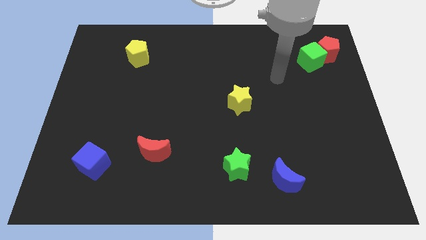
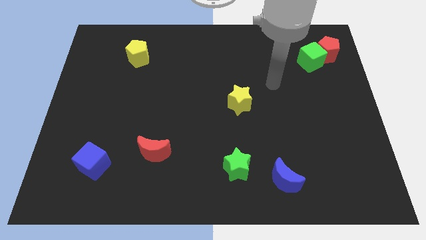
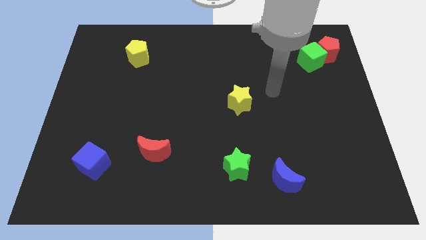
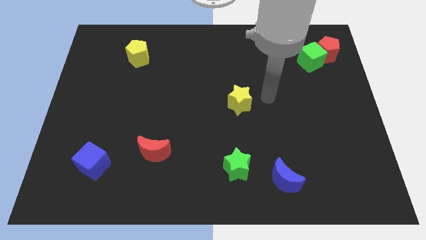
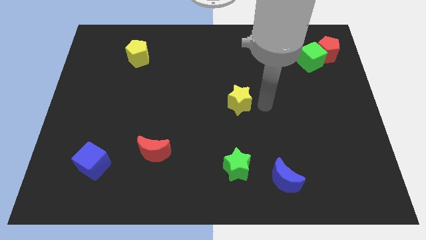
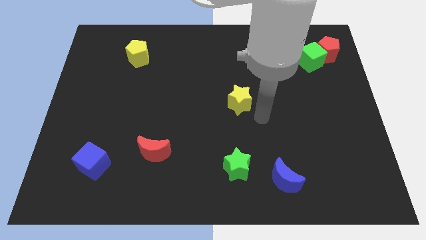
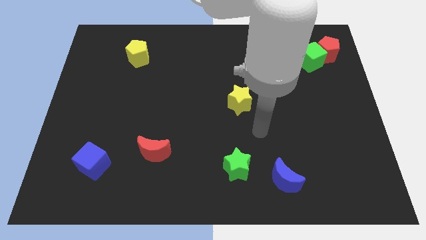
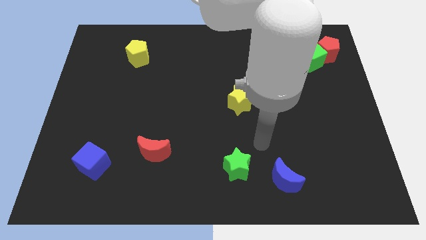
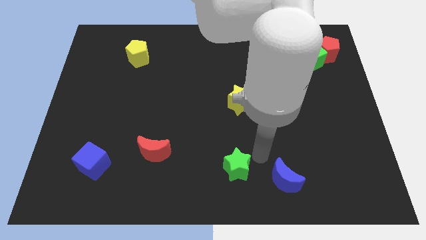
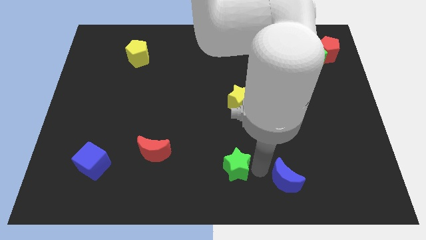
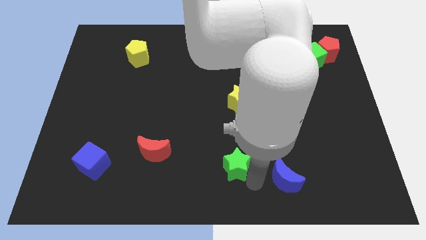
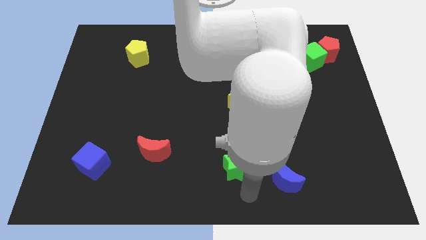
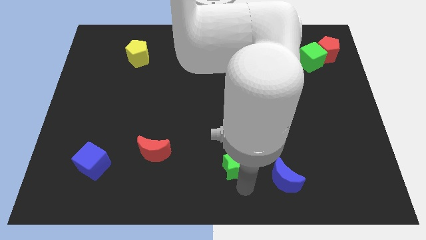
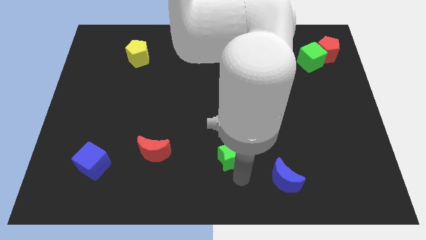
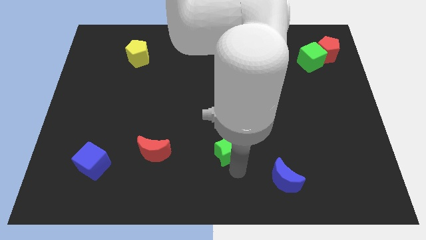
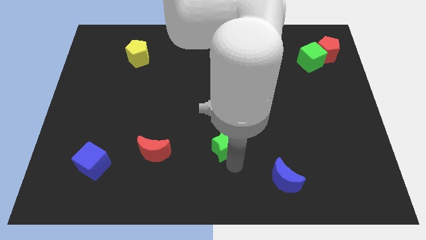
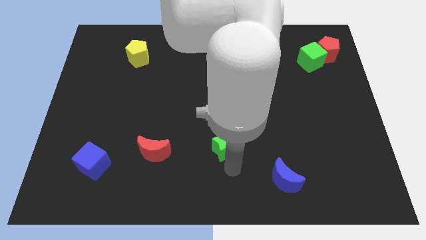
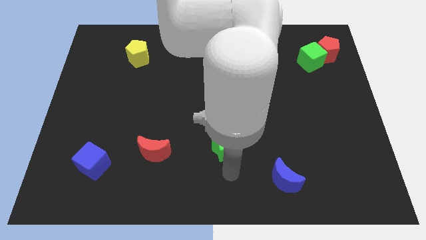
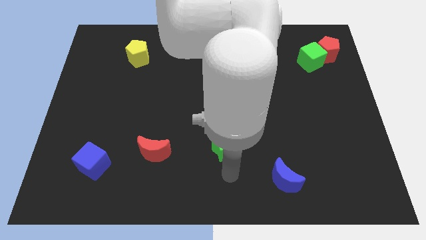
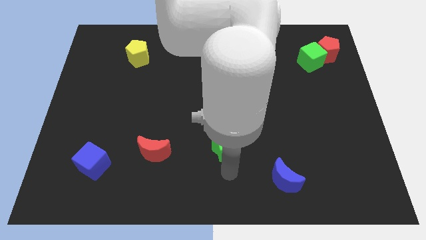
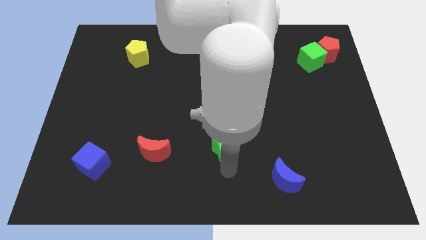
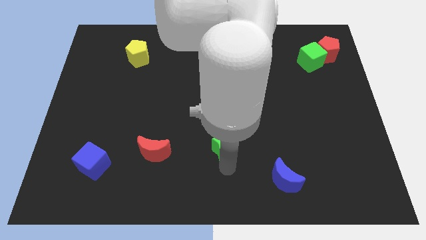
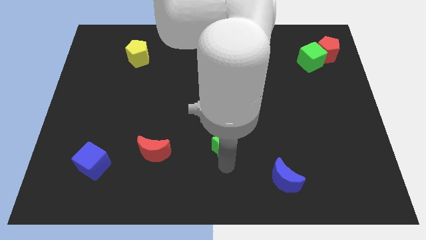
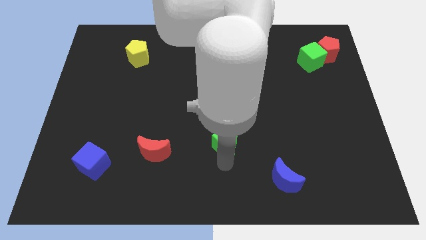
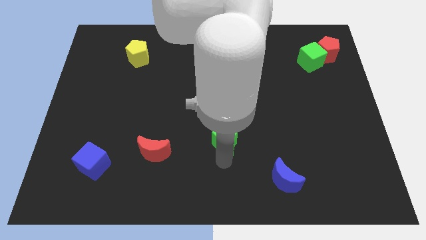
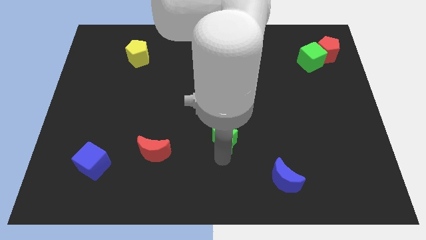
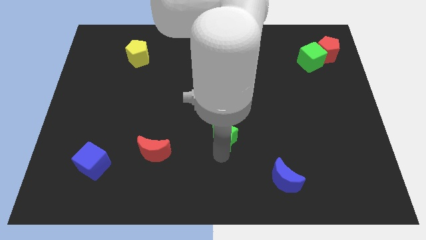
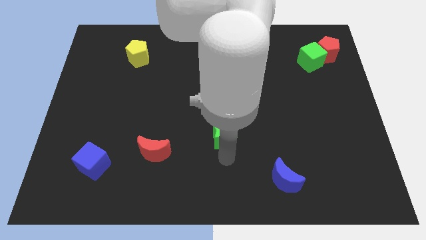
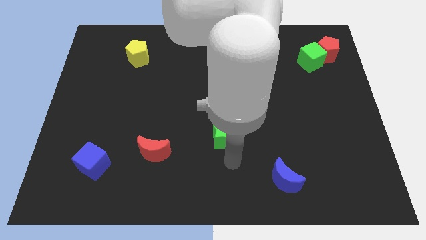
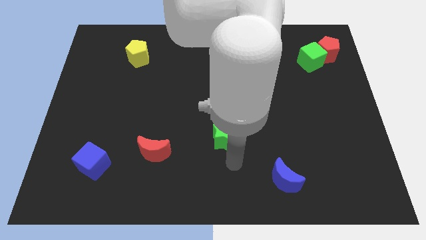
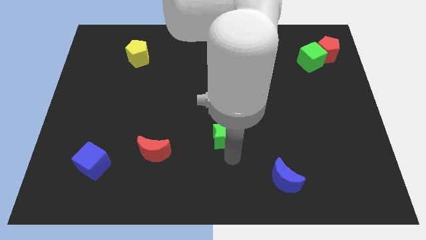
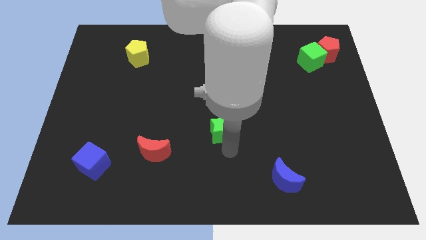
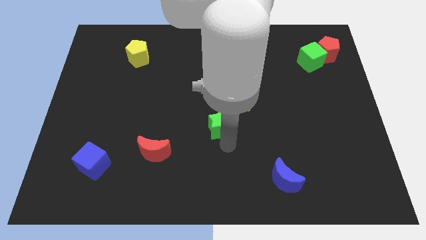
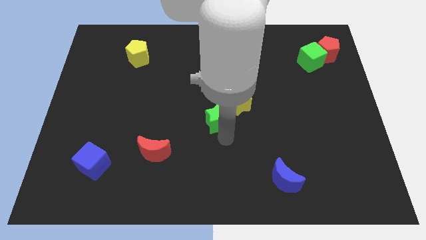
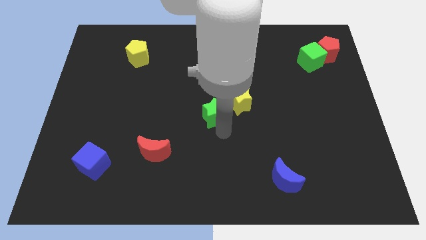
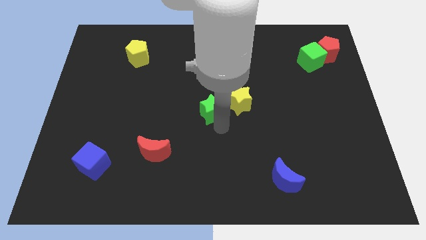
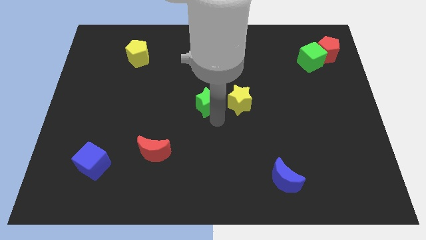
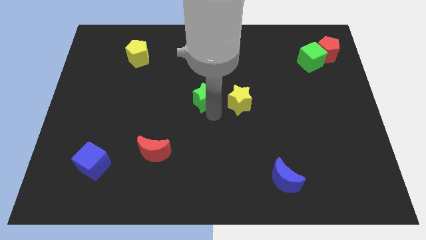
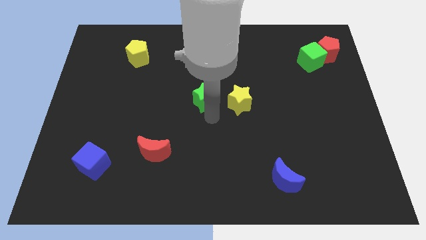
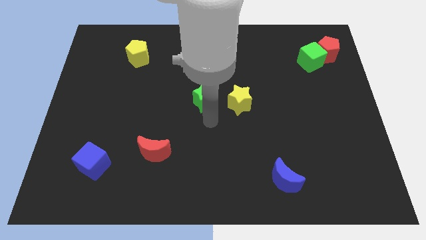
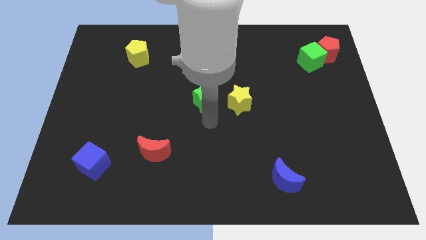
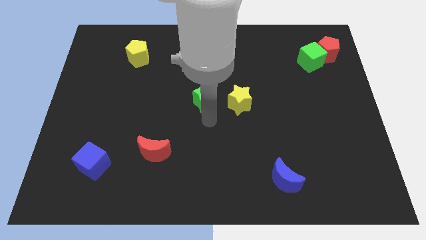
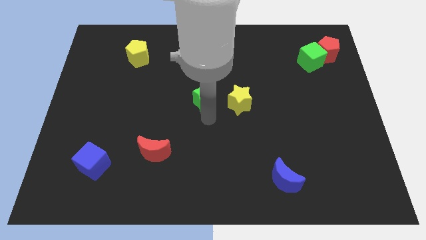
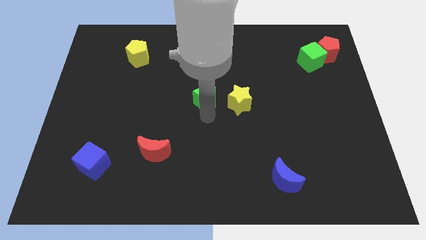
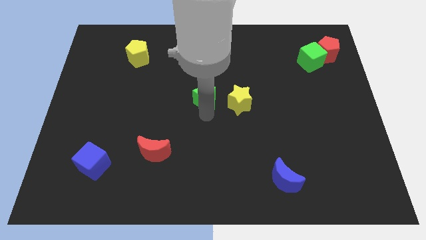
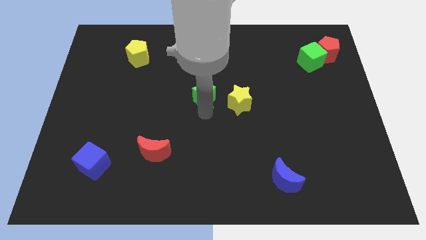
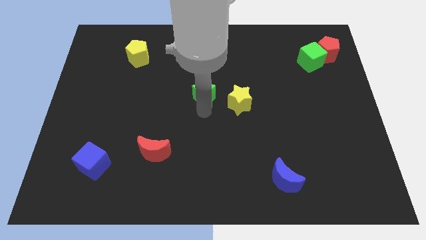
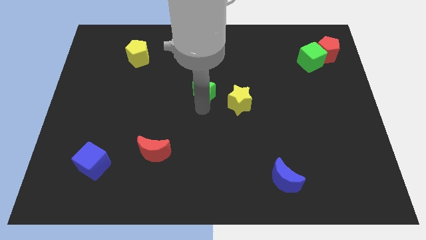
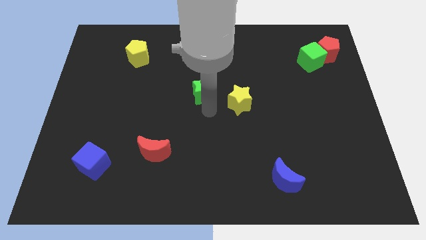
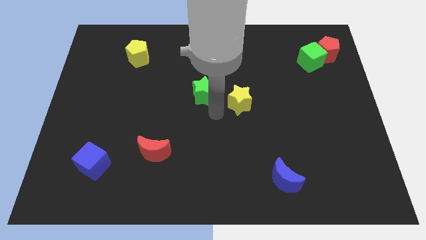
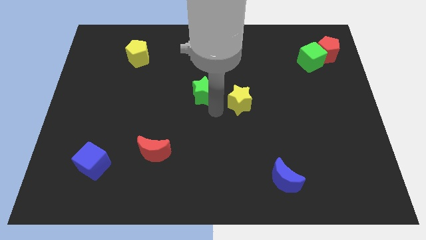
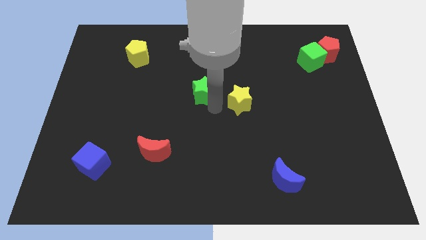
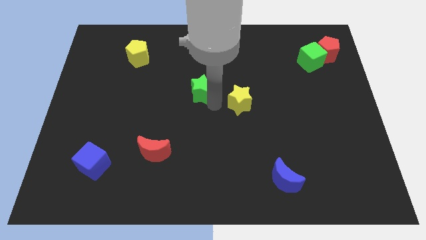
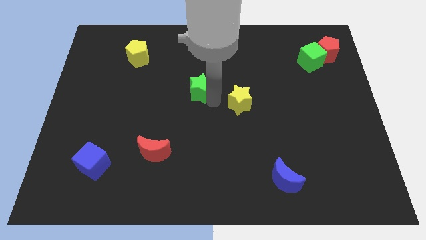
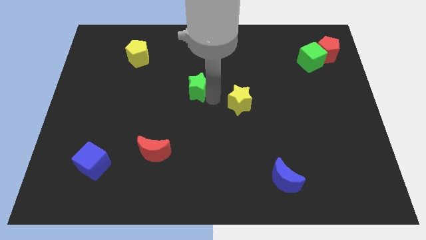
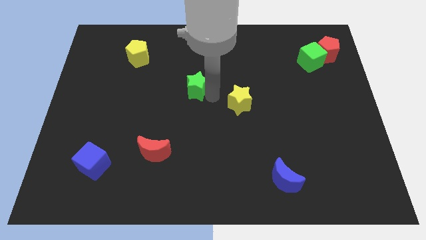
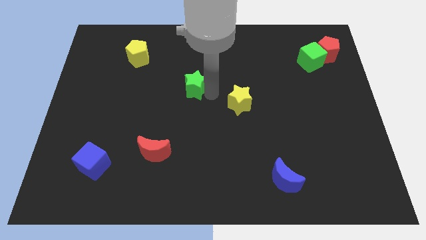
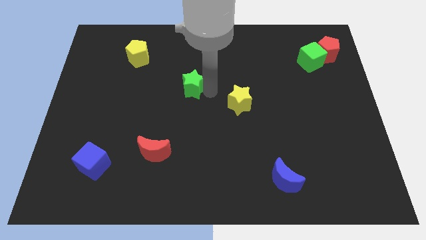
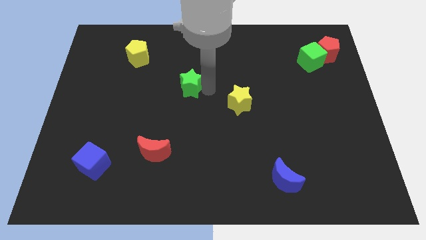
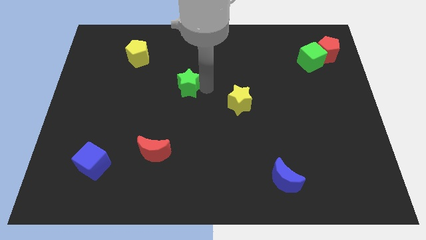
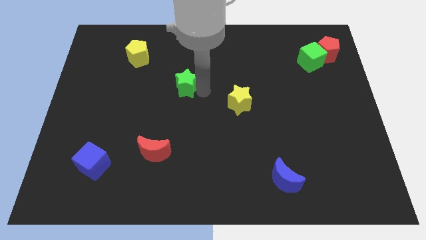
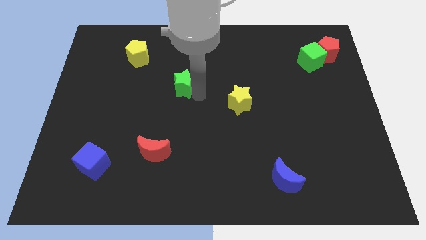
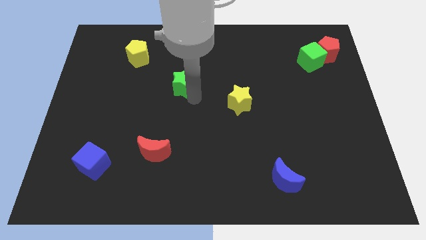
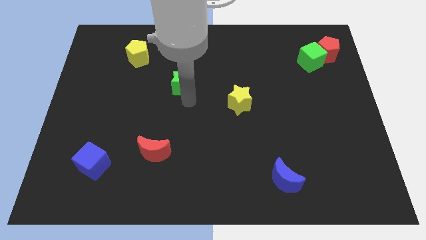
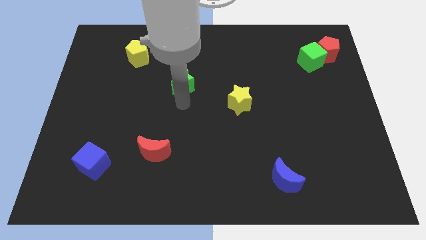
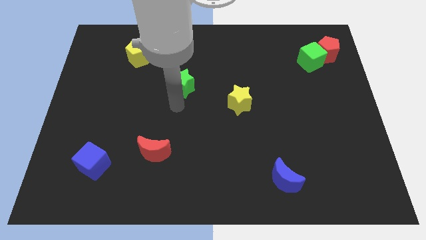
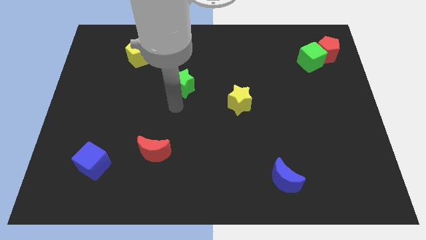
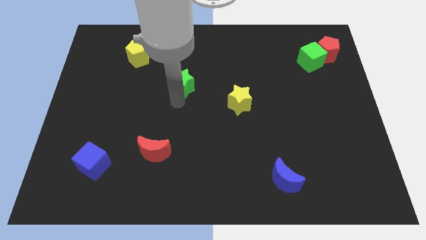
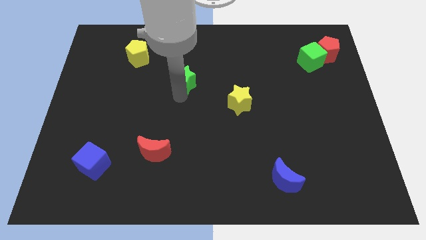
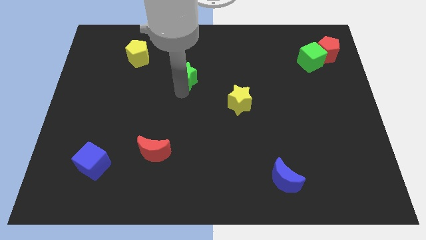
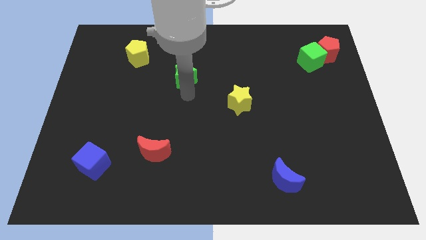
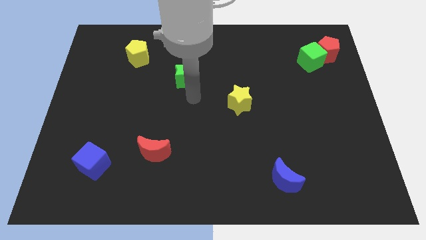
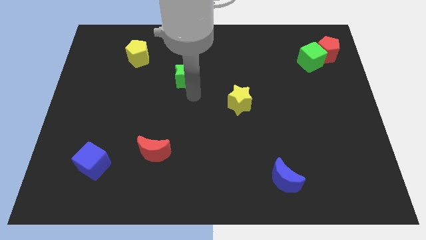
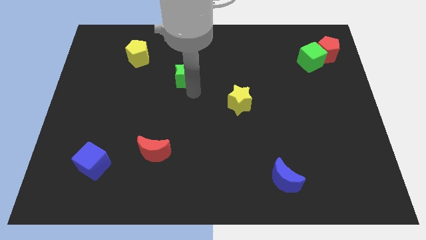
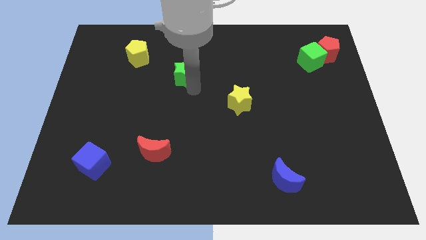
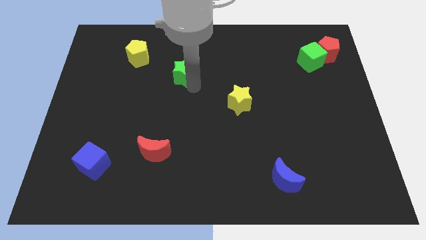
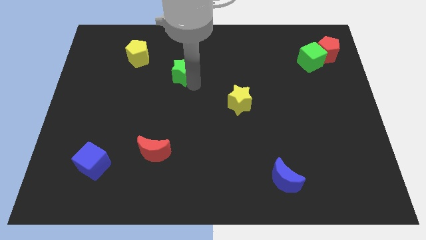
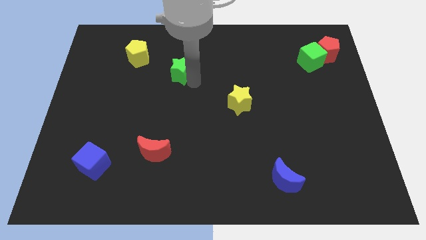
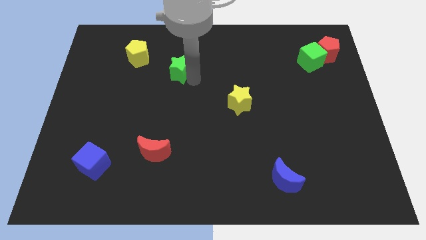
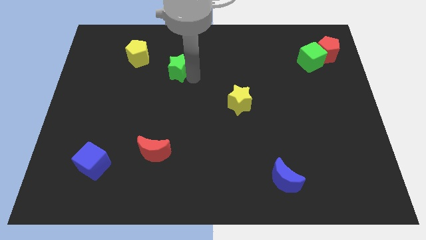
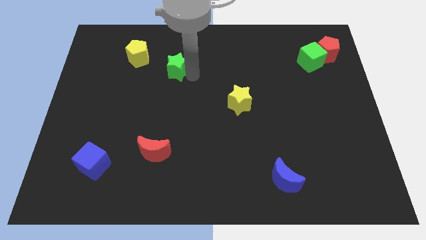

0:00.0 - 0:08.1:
put the green star just right of the yellow pentagon

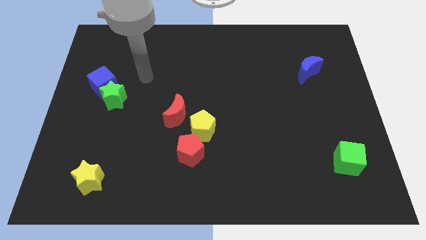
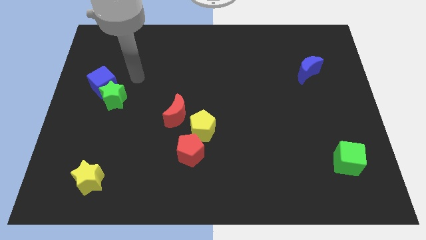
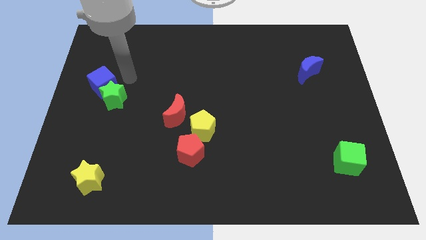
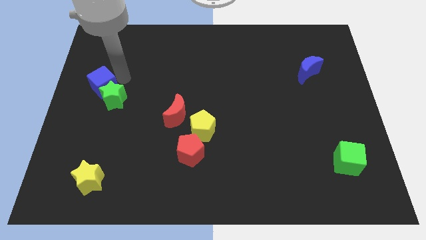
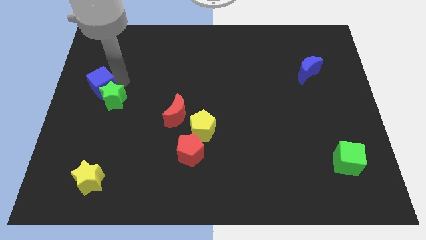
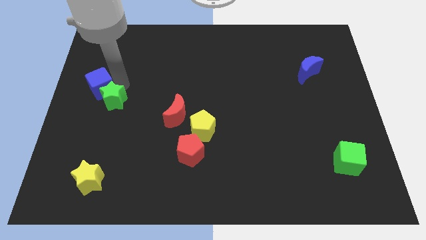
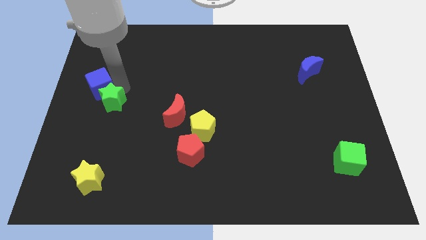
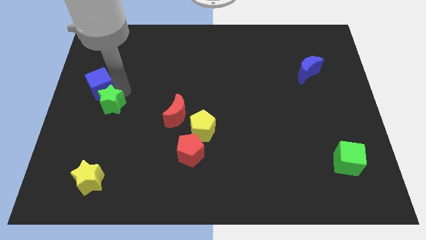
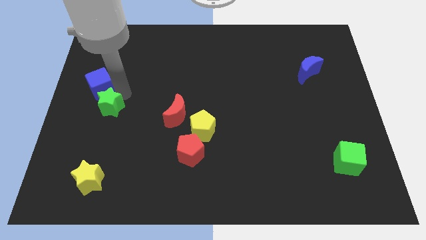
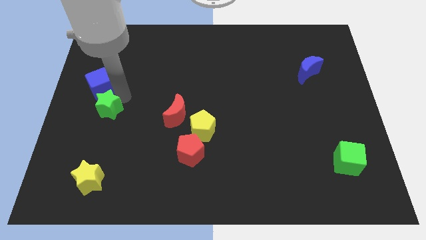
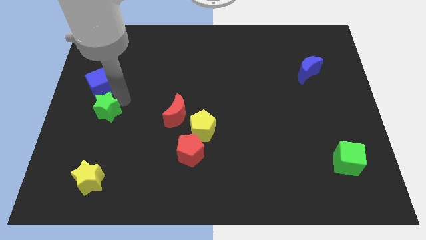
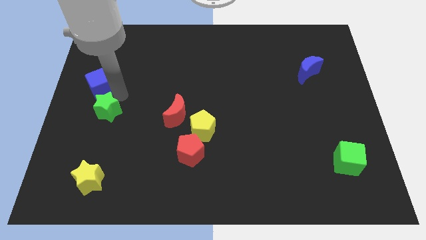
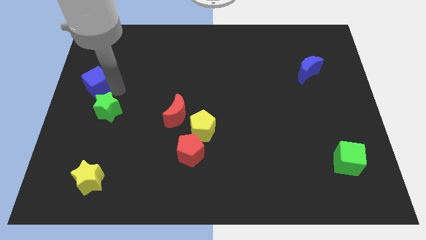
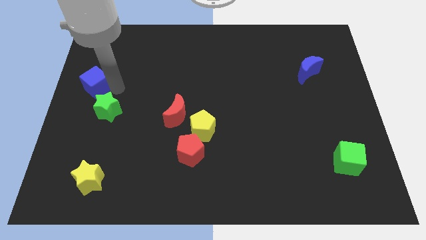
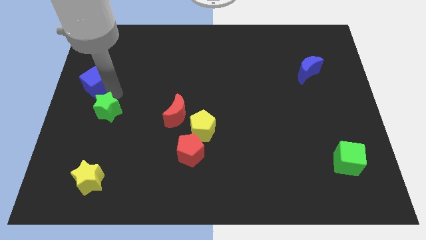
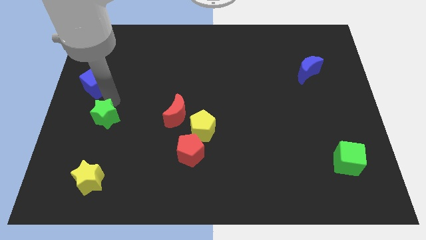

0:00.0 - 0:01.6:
push the green star to the top side of the yellow star
